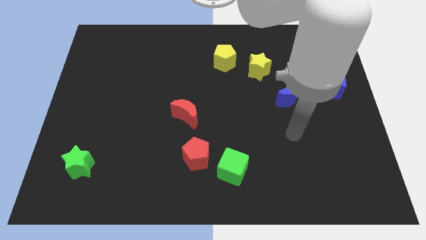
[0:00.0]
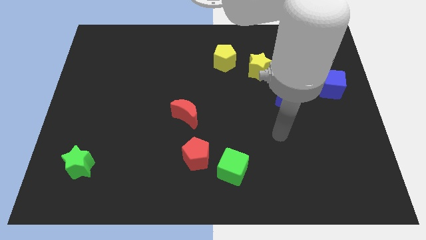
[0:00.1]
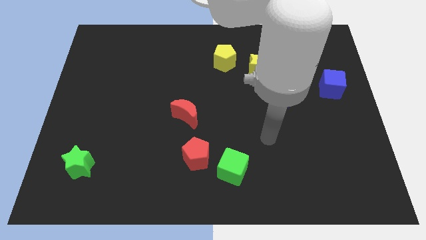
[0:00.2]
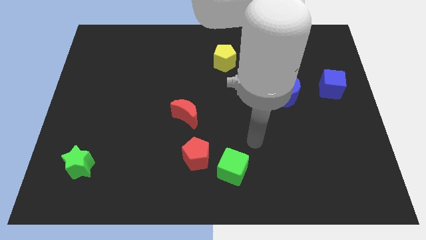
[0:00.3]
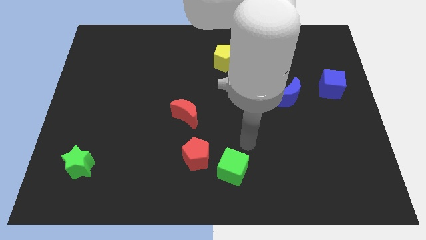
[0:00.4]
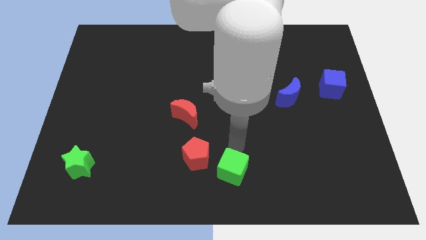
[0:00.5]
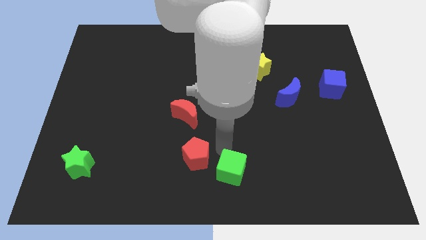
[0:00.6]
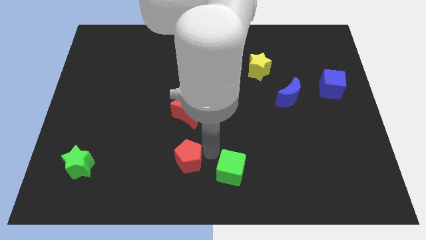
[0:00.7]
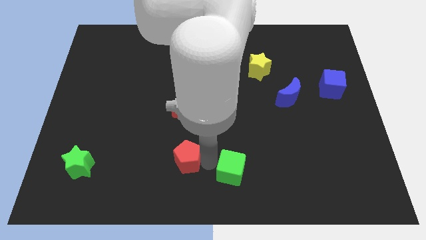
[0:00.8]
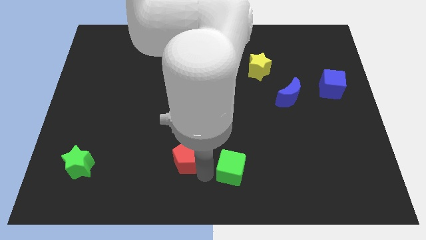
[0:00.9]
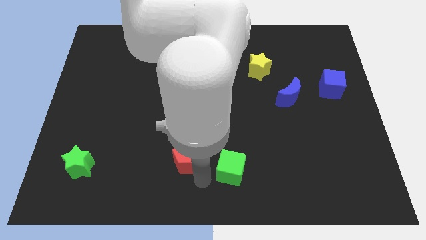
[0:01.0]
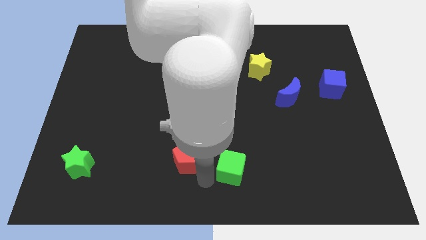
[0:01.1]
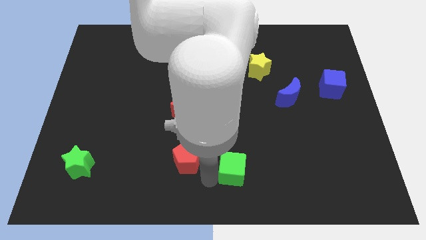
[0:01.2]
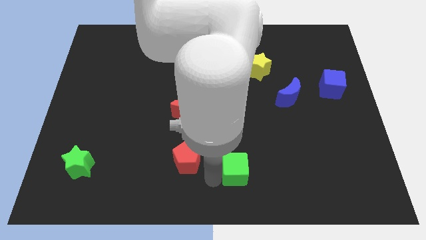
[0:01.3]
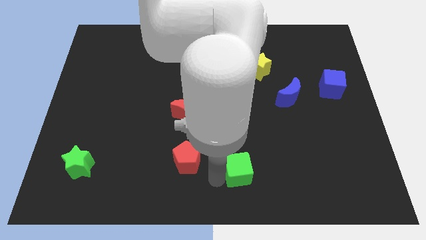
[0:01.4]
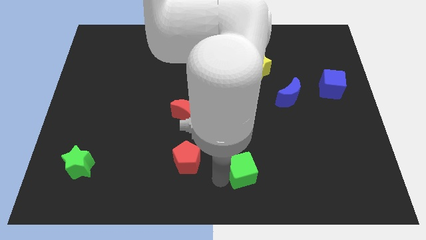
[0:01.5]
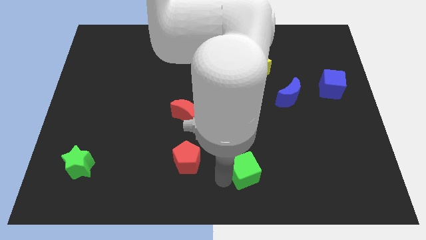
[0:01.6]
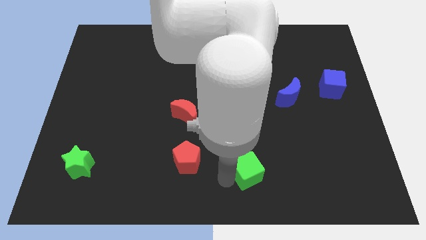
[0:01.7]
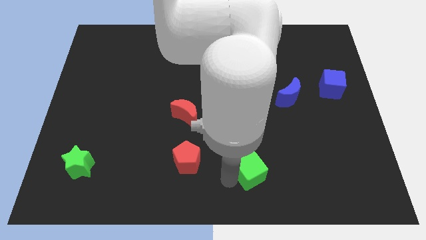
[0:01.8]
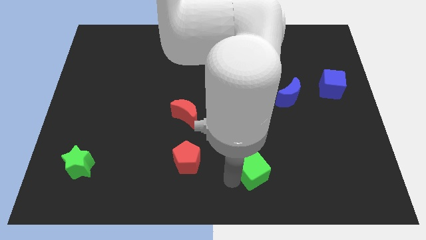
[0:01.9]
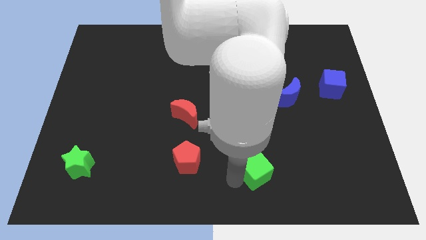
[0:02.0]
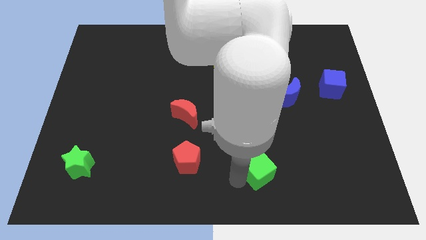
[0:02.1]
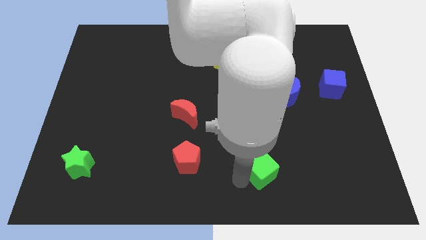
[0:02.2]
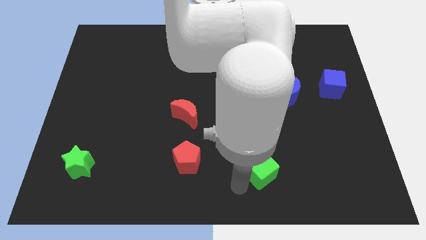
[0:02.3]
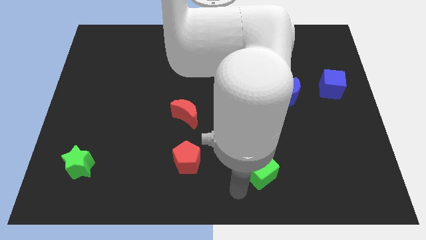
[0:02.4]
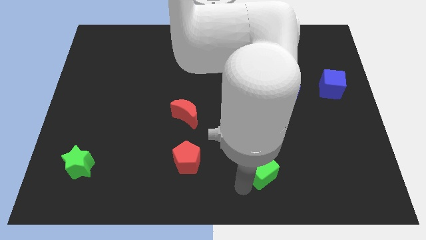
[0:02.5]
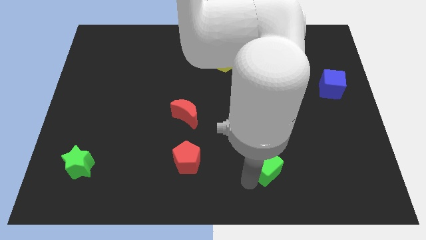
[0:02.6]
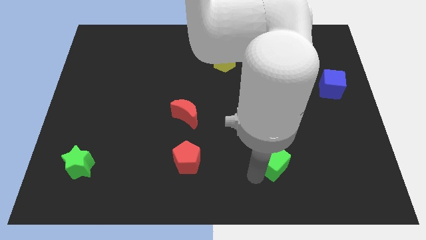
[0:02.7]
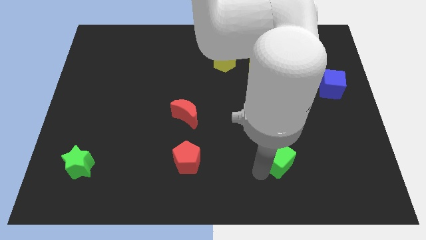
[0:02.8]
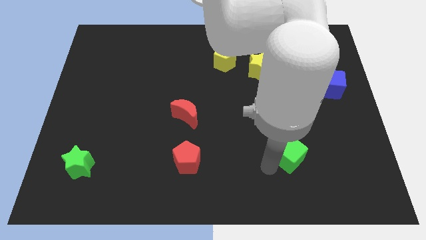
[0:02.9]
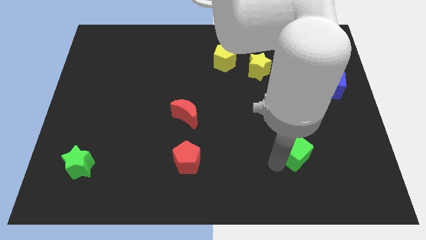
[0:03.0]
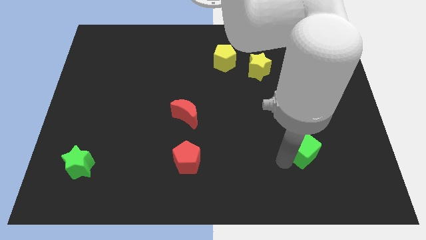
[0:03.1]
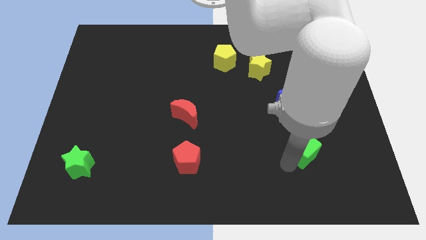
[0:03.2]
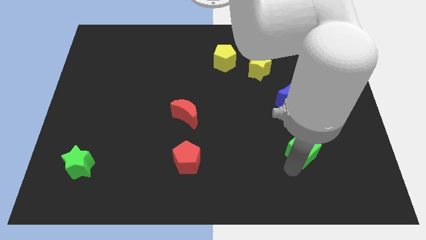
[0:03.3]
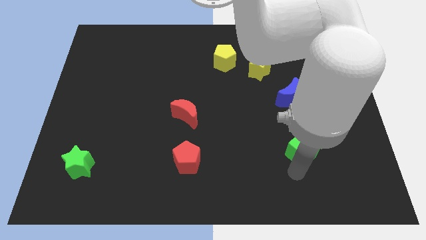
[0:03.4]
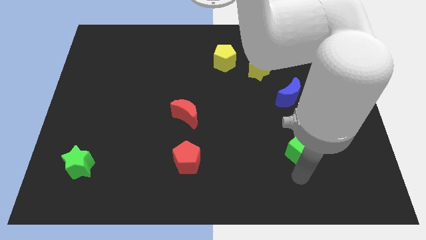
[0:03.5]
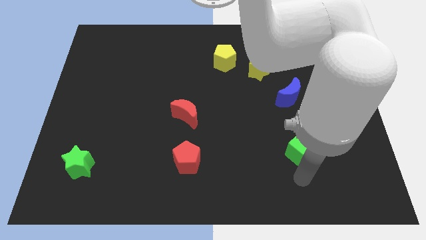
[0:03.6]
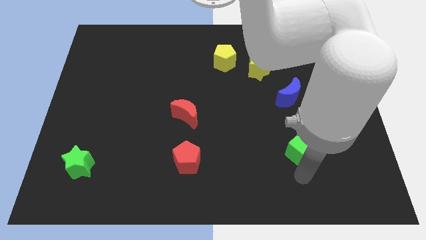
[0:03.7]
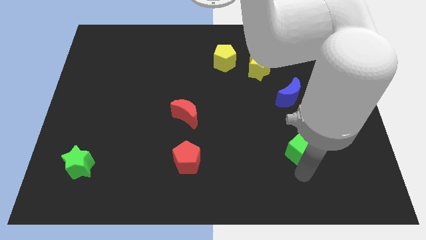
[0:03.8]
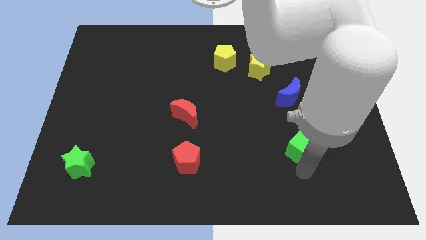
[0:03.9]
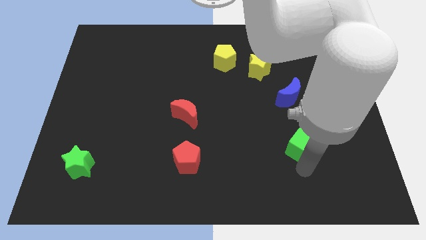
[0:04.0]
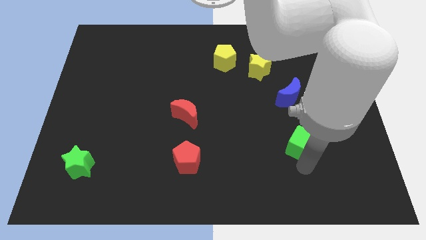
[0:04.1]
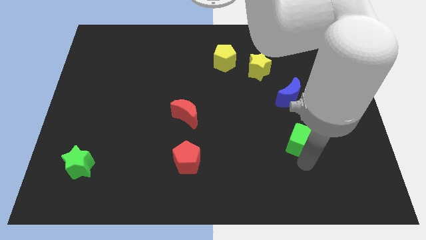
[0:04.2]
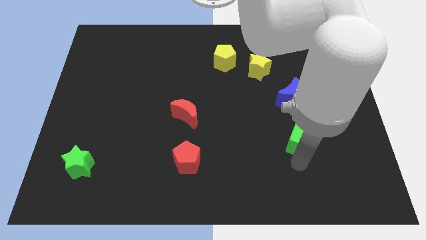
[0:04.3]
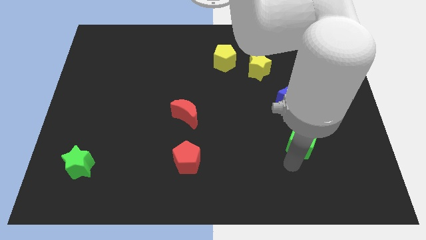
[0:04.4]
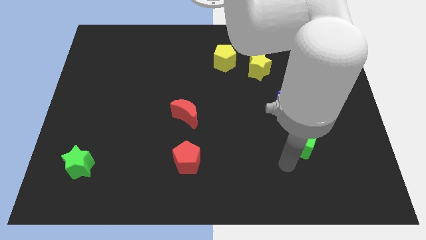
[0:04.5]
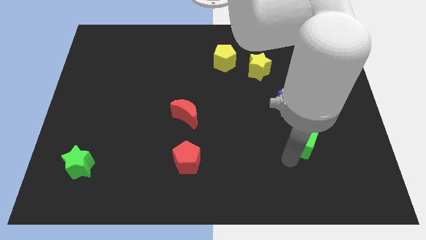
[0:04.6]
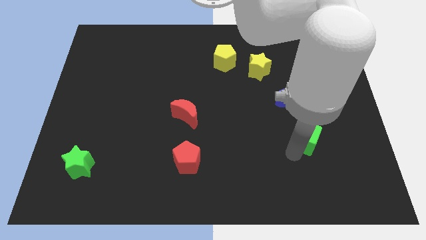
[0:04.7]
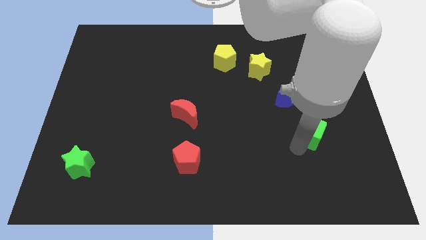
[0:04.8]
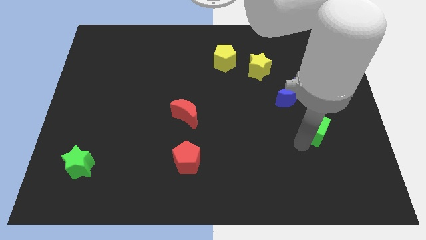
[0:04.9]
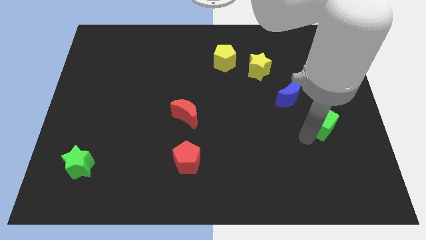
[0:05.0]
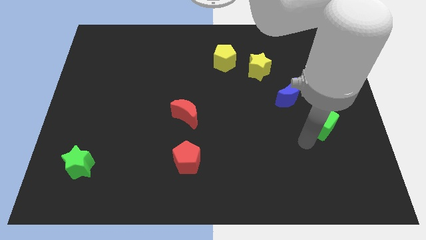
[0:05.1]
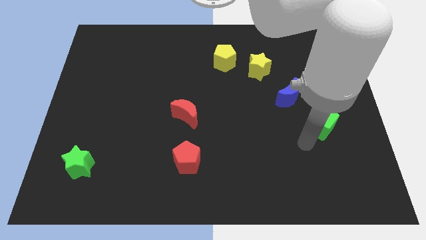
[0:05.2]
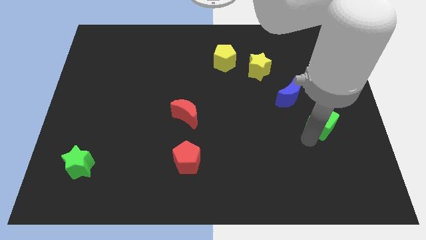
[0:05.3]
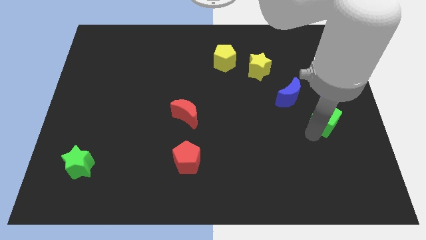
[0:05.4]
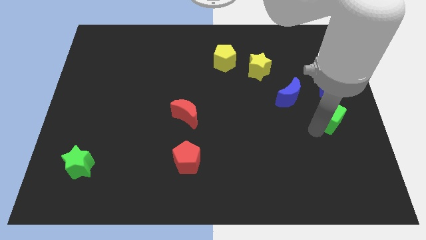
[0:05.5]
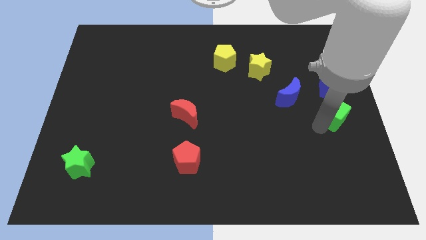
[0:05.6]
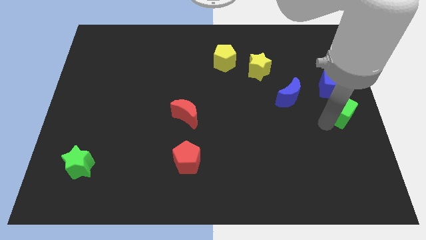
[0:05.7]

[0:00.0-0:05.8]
move the green cube to the right of the blue moon

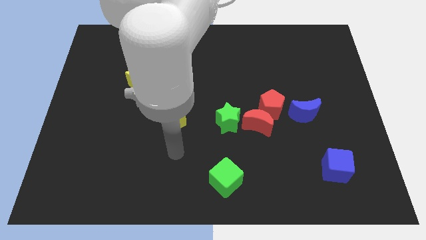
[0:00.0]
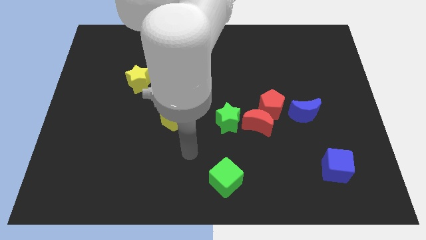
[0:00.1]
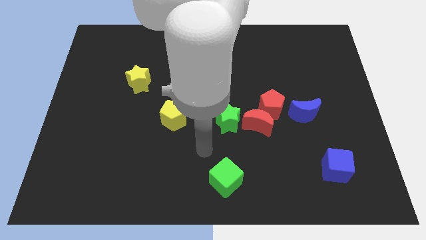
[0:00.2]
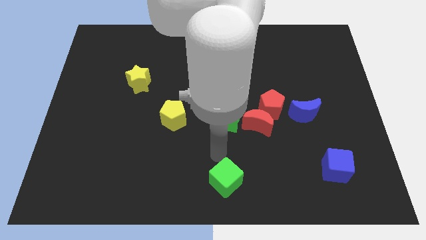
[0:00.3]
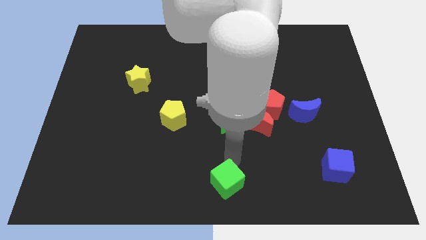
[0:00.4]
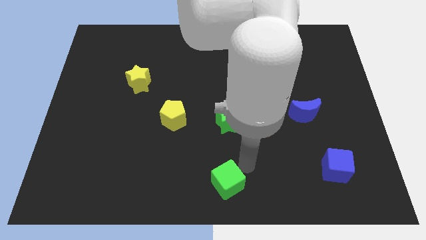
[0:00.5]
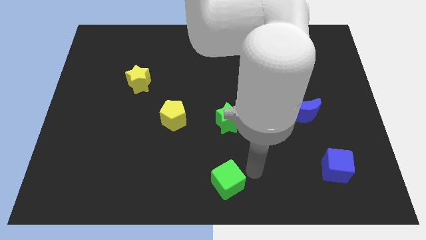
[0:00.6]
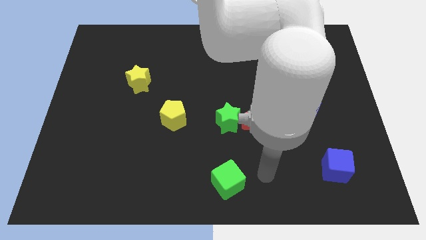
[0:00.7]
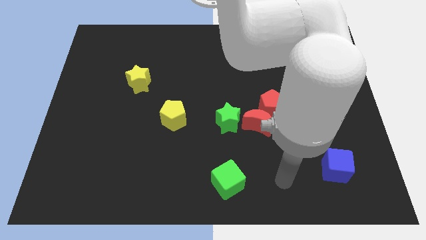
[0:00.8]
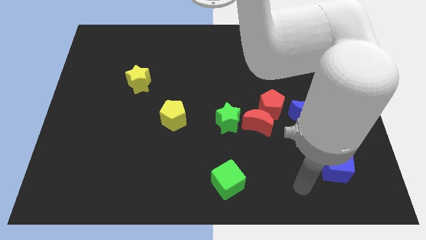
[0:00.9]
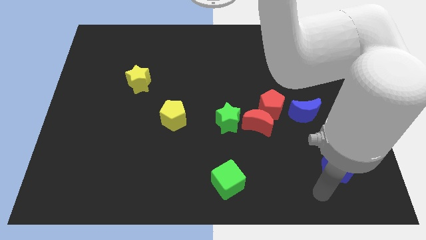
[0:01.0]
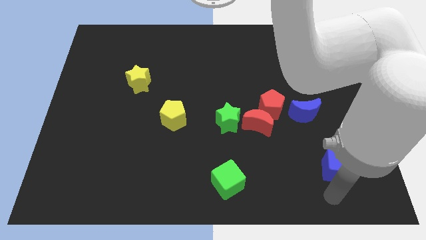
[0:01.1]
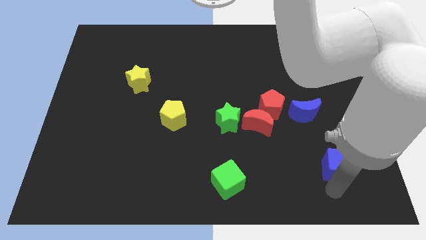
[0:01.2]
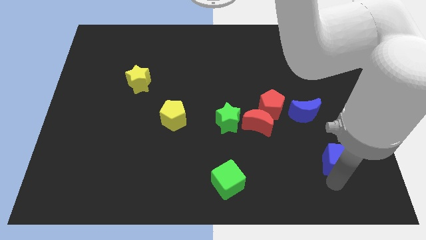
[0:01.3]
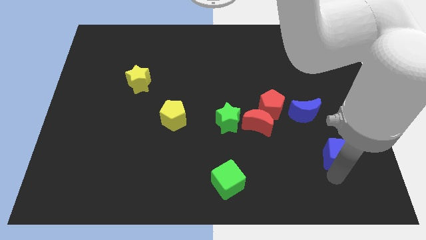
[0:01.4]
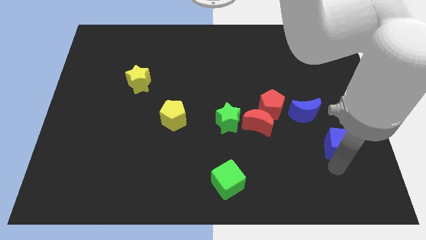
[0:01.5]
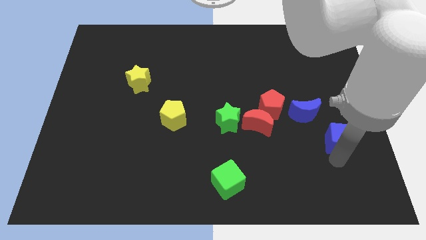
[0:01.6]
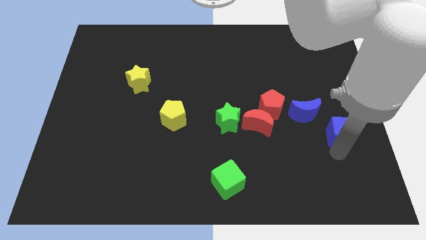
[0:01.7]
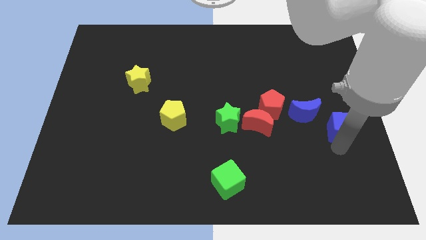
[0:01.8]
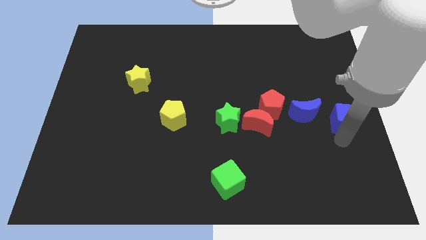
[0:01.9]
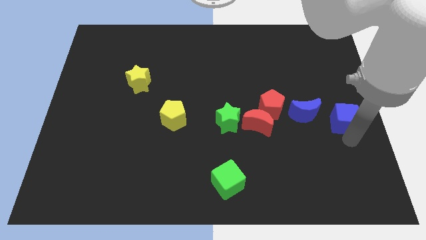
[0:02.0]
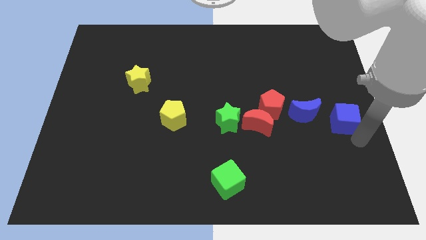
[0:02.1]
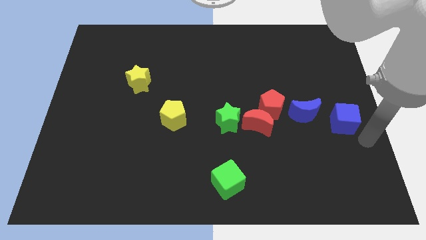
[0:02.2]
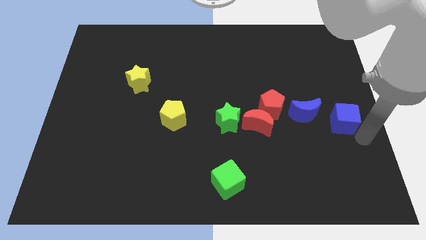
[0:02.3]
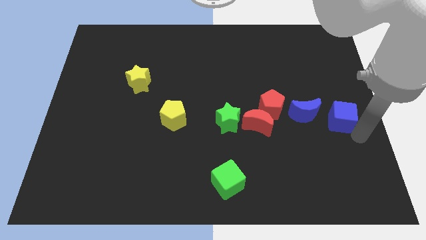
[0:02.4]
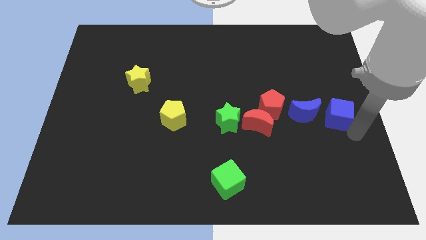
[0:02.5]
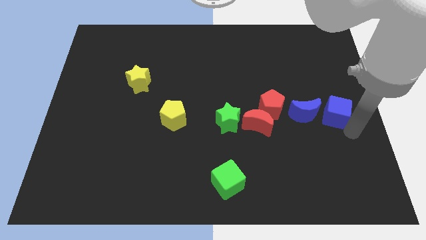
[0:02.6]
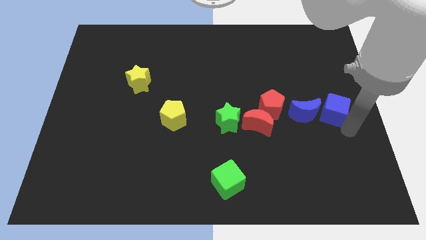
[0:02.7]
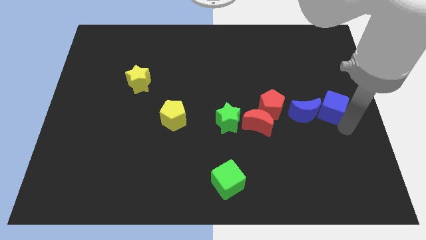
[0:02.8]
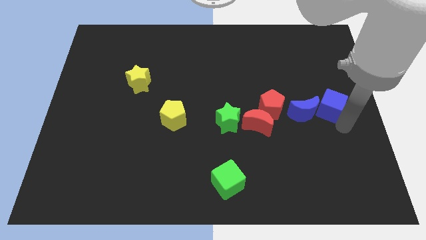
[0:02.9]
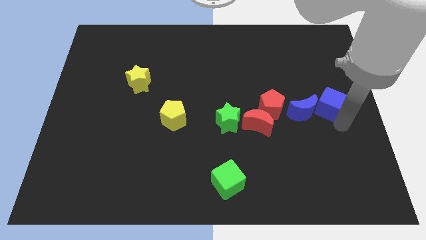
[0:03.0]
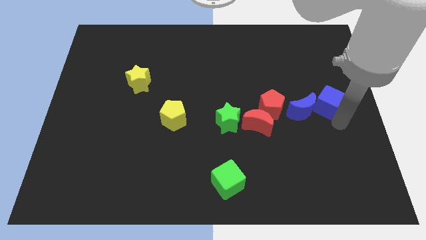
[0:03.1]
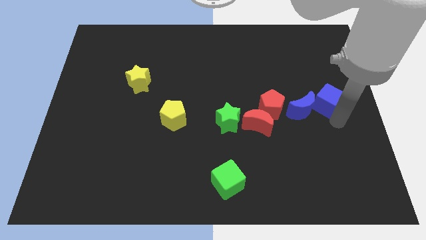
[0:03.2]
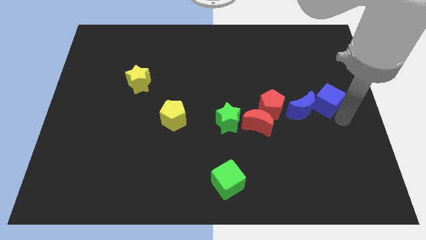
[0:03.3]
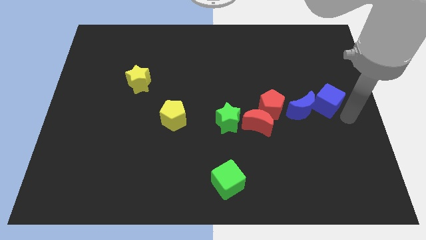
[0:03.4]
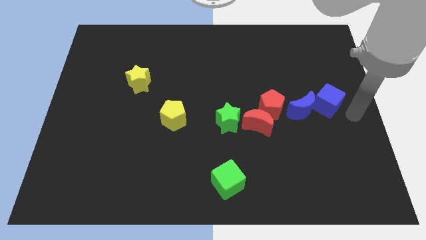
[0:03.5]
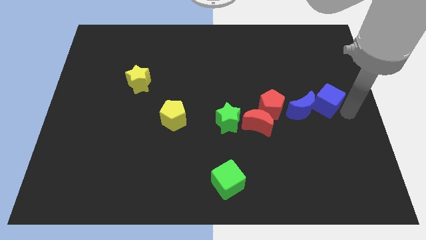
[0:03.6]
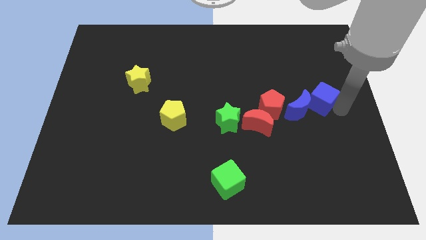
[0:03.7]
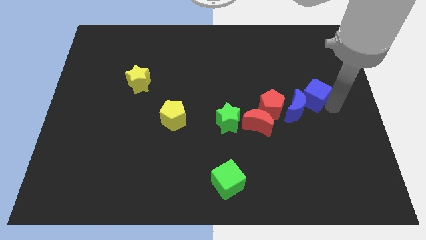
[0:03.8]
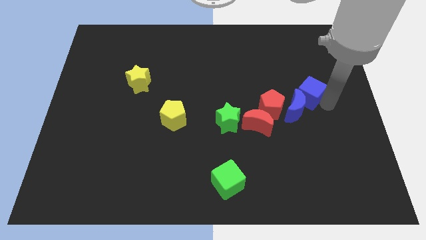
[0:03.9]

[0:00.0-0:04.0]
move the blue cube to the top of the blue moon
